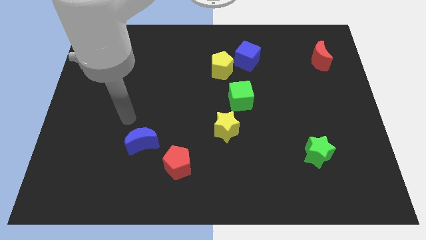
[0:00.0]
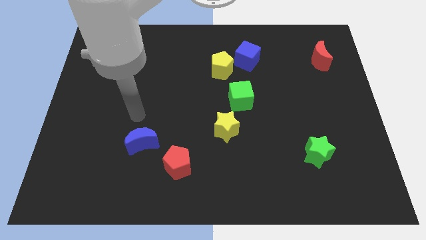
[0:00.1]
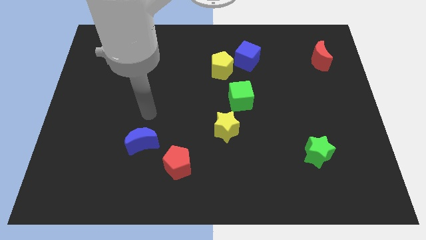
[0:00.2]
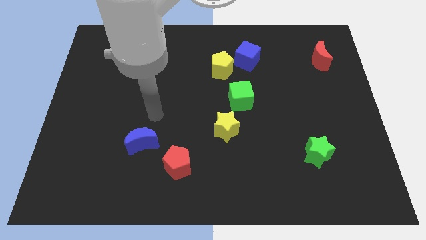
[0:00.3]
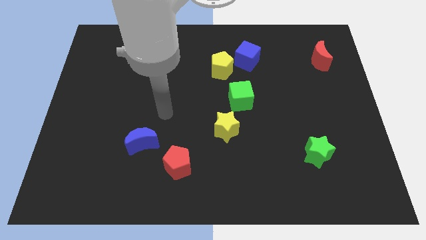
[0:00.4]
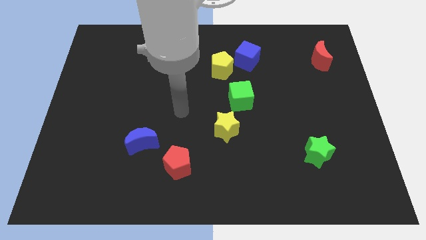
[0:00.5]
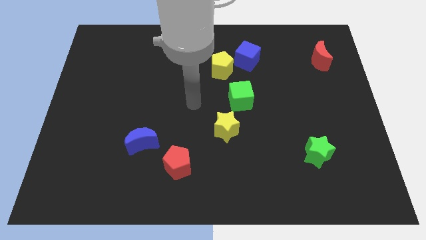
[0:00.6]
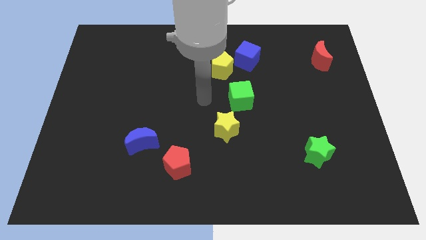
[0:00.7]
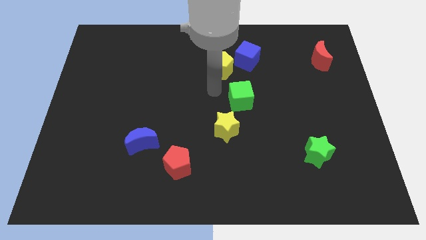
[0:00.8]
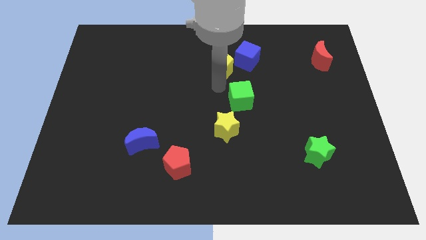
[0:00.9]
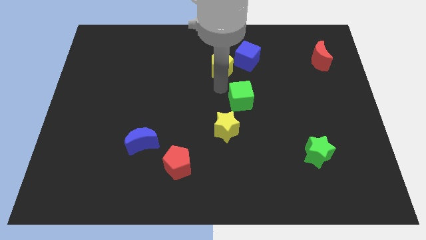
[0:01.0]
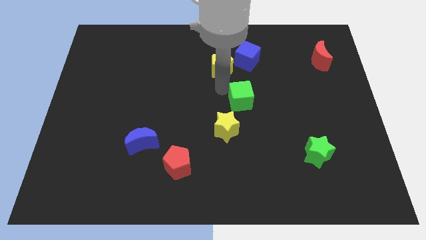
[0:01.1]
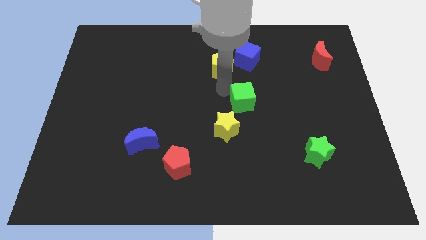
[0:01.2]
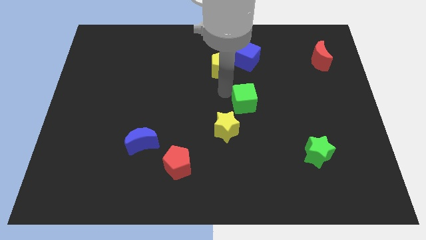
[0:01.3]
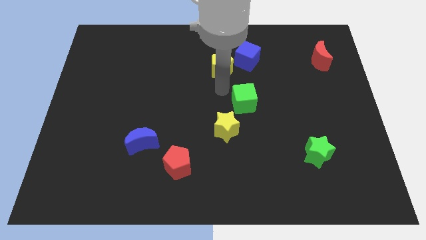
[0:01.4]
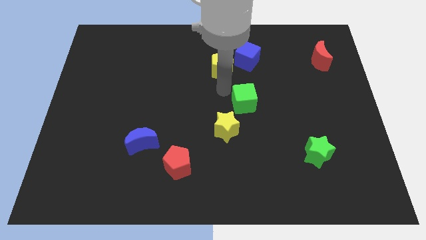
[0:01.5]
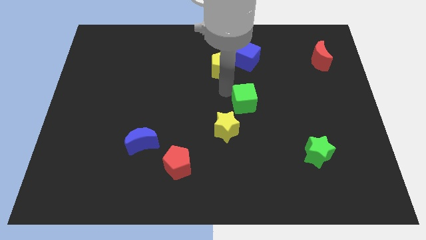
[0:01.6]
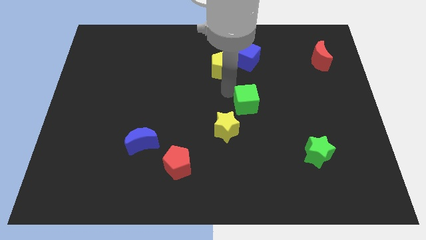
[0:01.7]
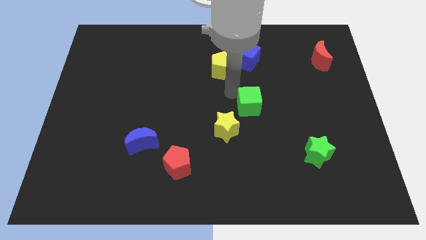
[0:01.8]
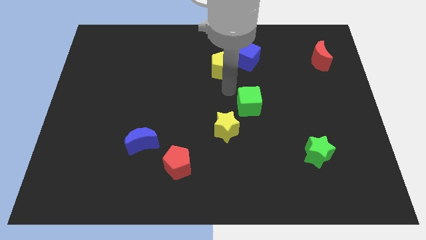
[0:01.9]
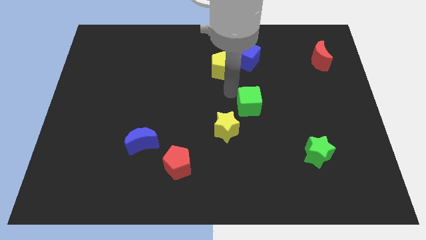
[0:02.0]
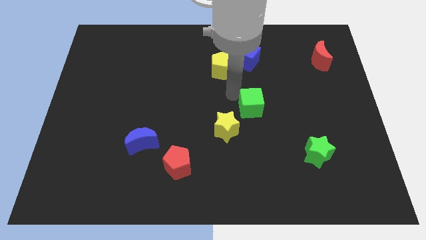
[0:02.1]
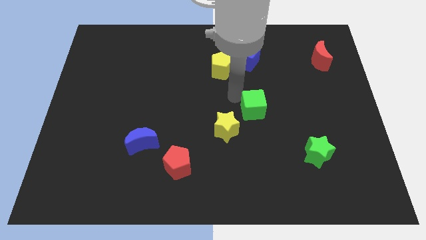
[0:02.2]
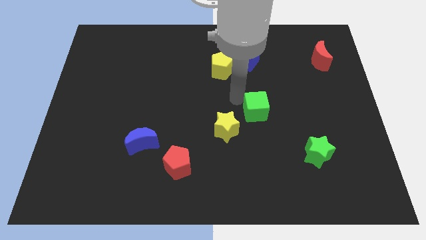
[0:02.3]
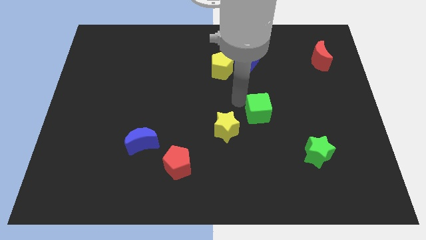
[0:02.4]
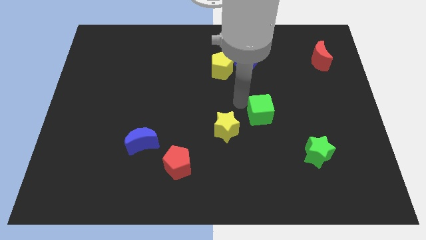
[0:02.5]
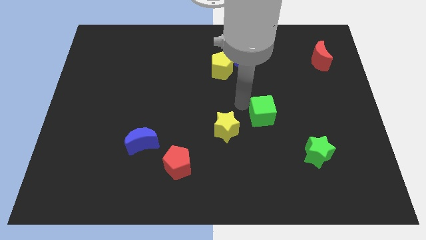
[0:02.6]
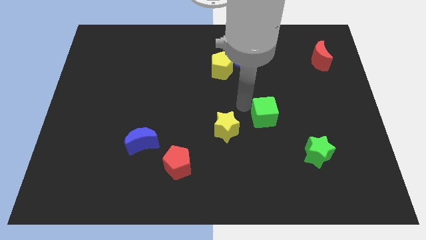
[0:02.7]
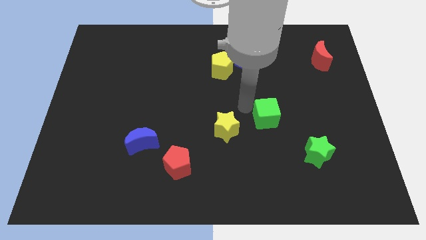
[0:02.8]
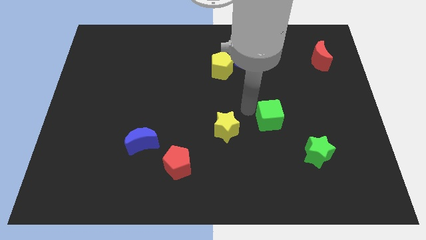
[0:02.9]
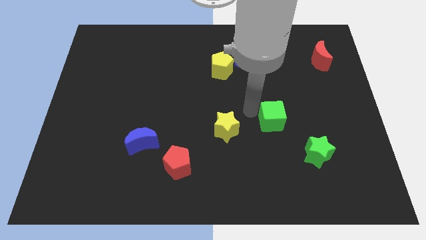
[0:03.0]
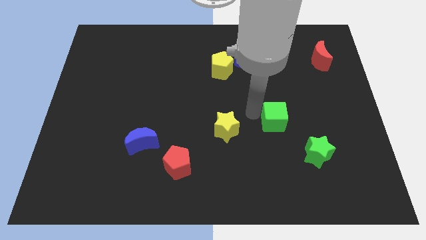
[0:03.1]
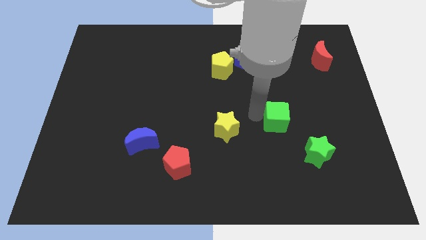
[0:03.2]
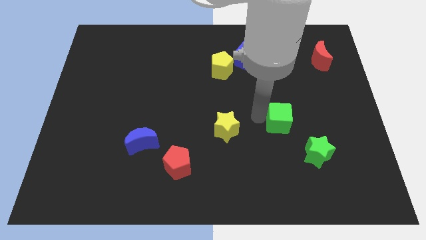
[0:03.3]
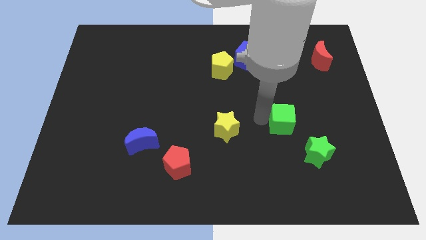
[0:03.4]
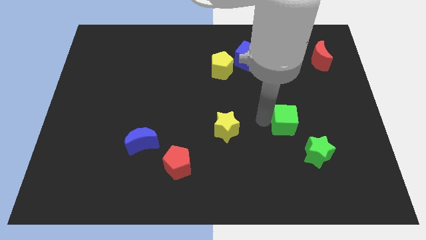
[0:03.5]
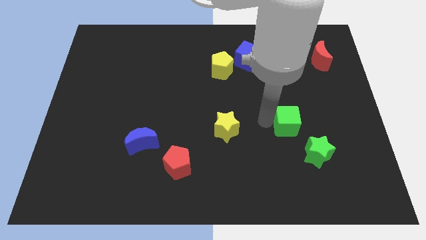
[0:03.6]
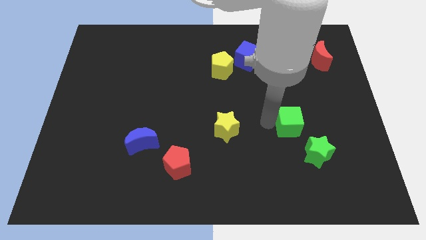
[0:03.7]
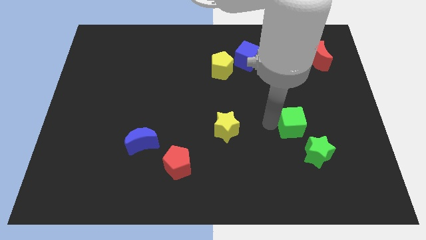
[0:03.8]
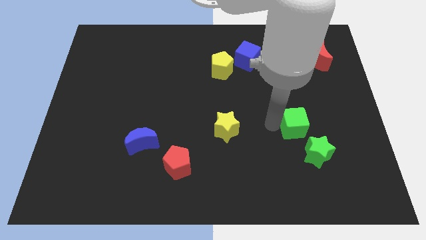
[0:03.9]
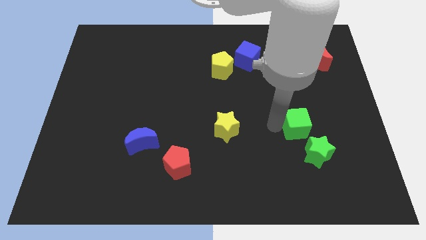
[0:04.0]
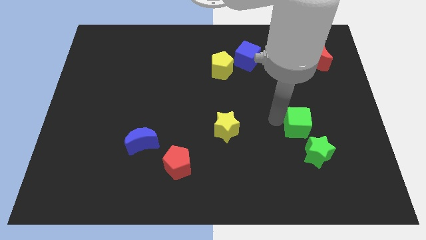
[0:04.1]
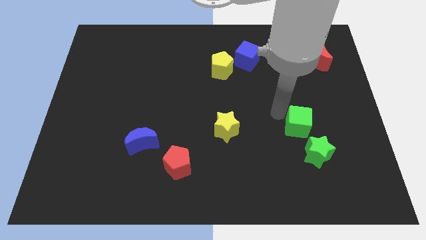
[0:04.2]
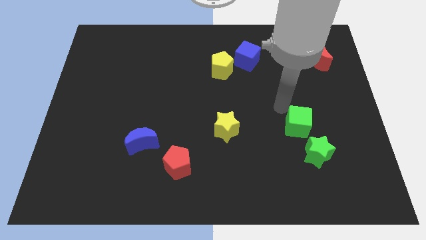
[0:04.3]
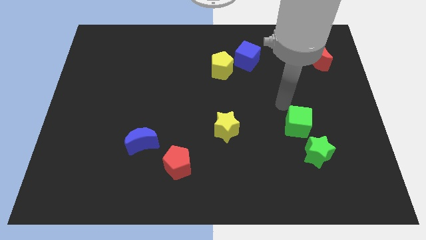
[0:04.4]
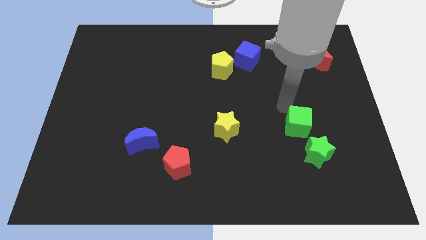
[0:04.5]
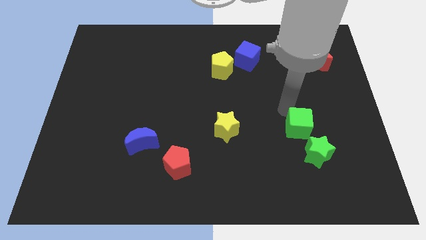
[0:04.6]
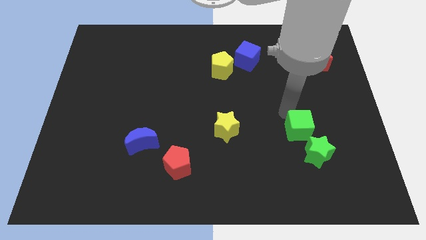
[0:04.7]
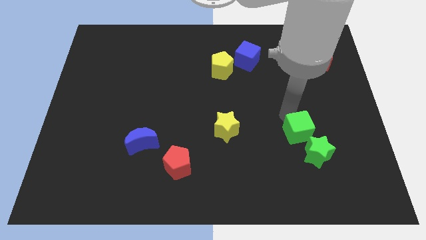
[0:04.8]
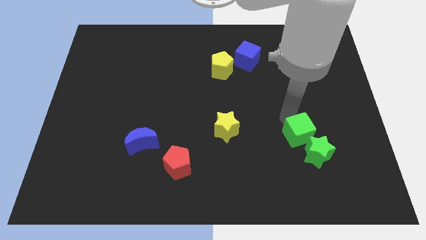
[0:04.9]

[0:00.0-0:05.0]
push the green cube towards the green star
